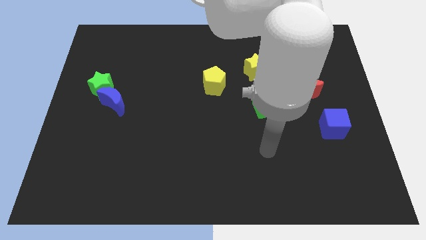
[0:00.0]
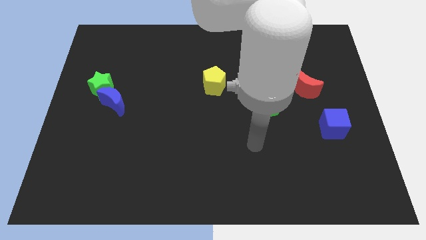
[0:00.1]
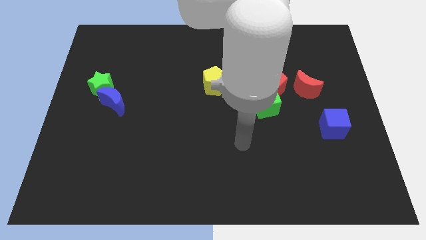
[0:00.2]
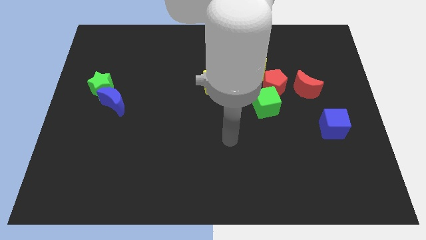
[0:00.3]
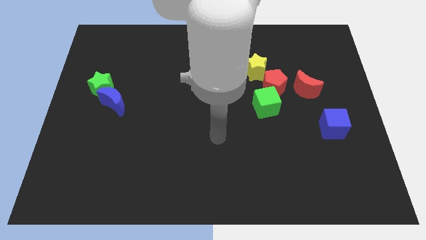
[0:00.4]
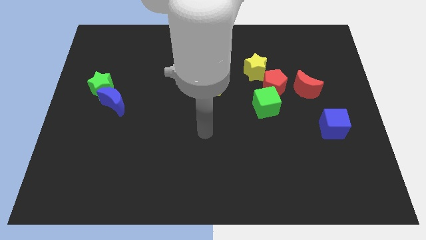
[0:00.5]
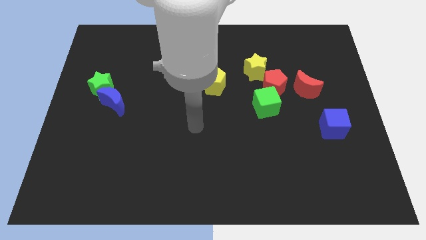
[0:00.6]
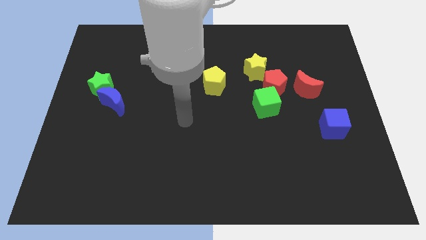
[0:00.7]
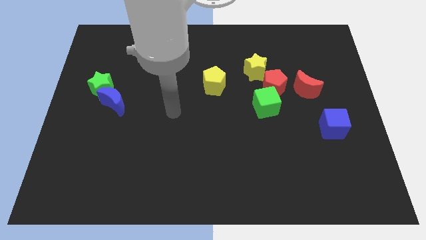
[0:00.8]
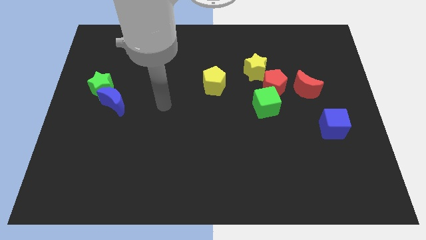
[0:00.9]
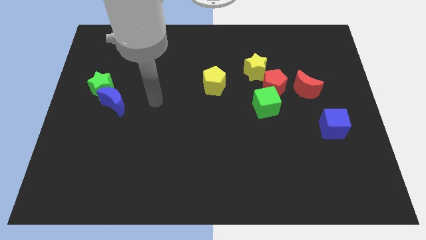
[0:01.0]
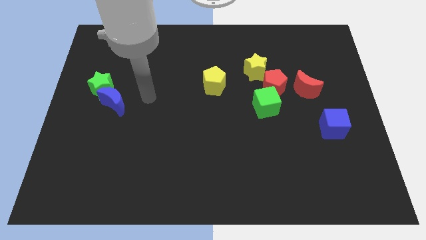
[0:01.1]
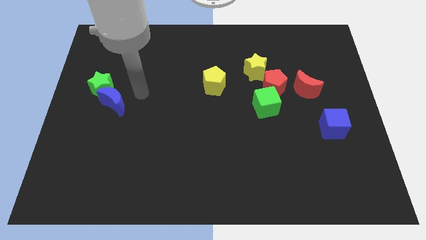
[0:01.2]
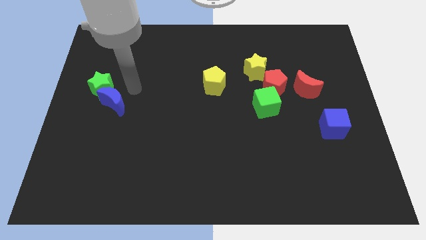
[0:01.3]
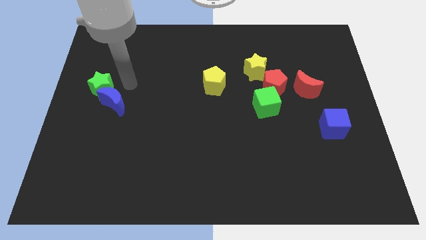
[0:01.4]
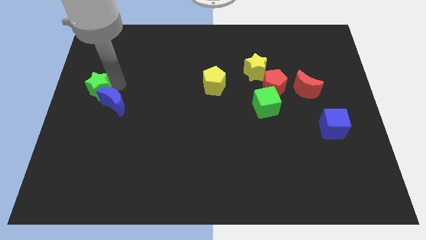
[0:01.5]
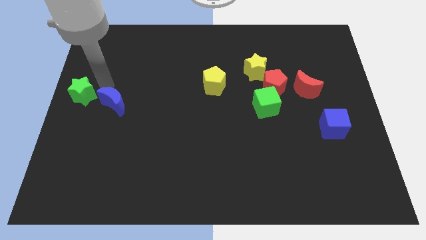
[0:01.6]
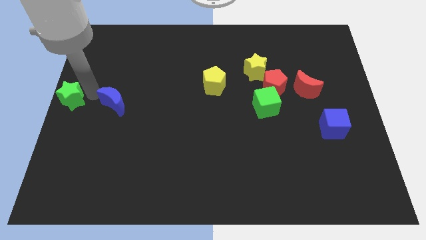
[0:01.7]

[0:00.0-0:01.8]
separate the blue moon from the green star

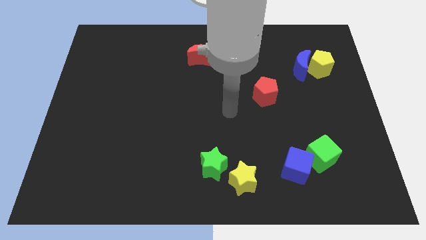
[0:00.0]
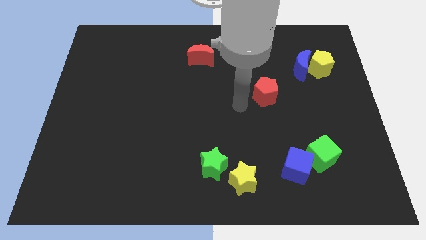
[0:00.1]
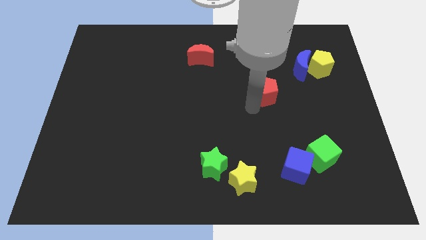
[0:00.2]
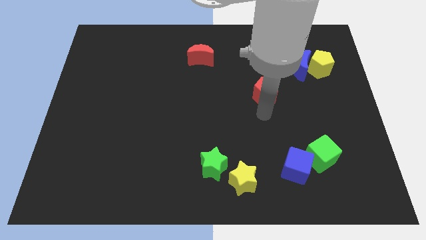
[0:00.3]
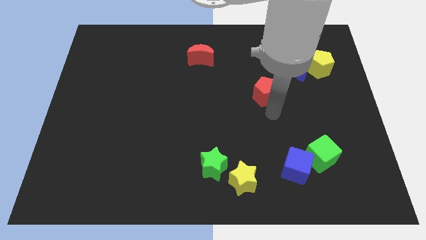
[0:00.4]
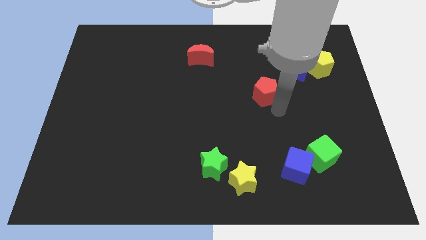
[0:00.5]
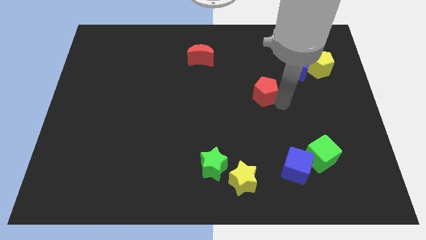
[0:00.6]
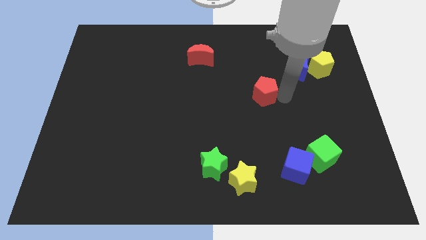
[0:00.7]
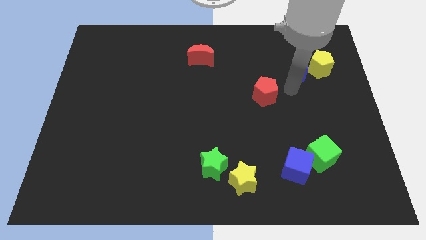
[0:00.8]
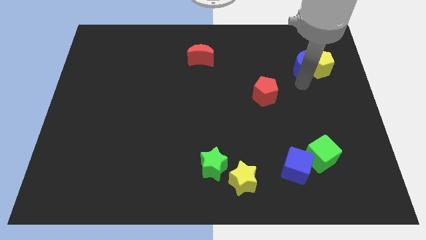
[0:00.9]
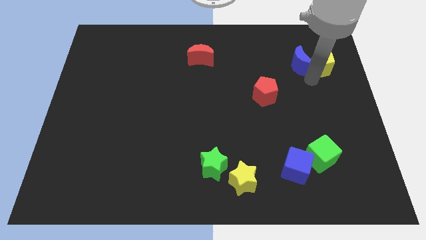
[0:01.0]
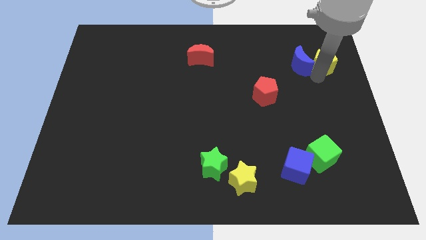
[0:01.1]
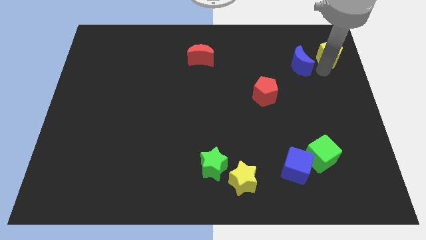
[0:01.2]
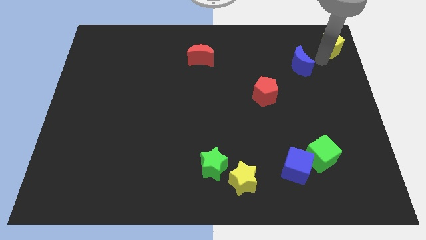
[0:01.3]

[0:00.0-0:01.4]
move the blue moon away from the yellow pentagon

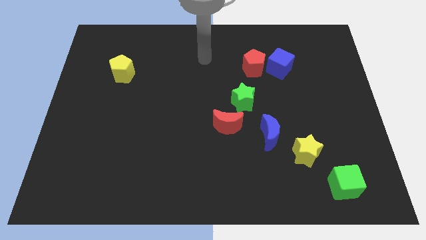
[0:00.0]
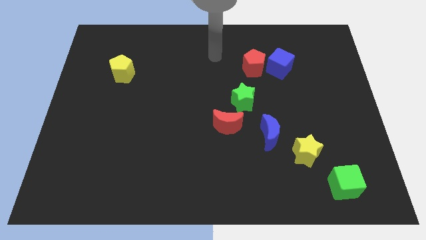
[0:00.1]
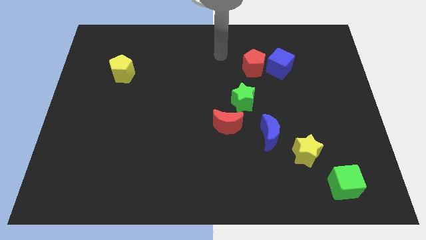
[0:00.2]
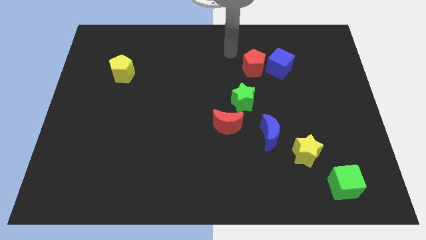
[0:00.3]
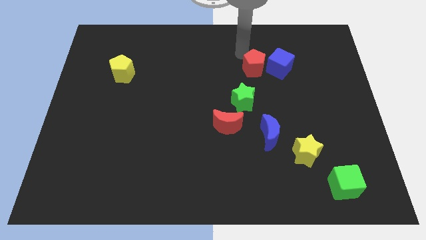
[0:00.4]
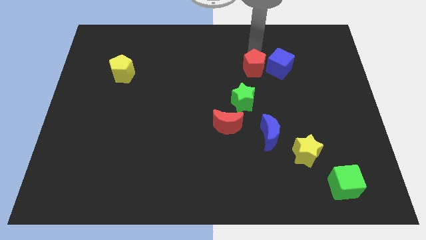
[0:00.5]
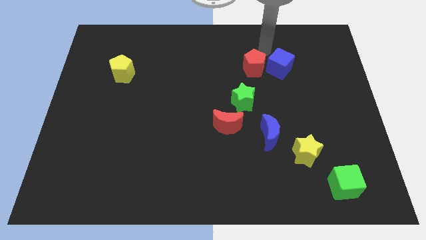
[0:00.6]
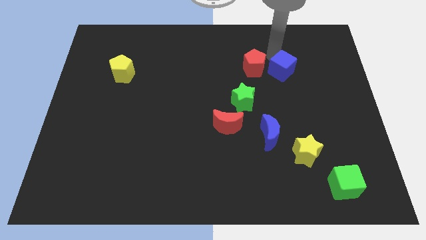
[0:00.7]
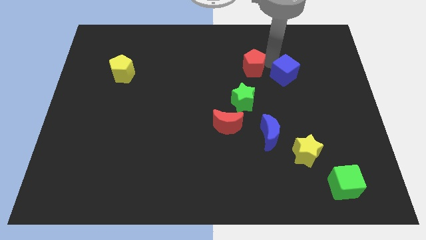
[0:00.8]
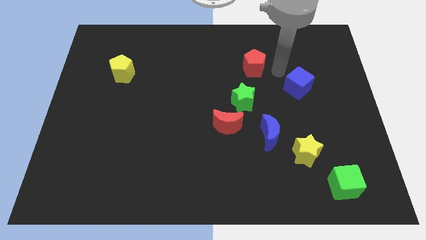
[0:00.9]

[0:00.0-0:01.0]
separate the red pentagon from the blue cube

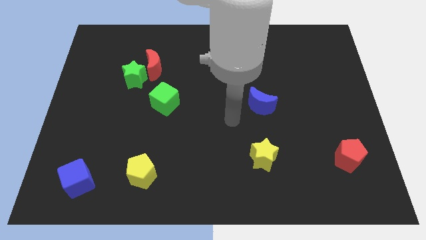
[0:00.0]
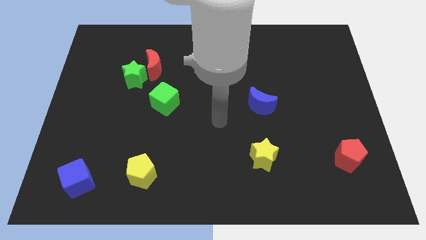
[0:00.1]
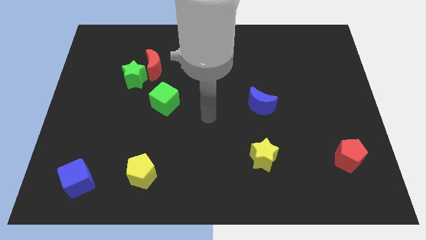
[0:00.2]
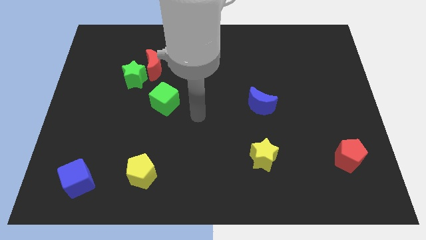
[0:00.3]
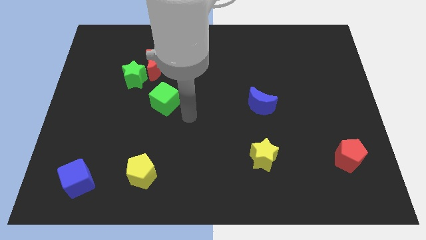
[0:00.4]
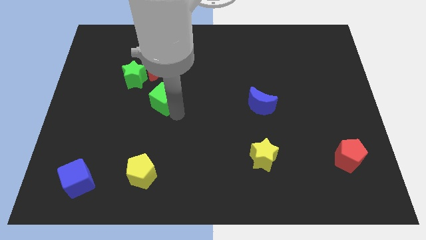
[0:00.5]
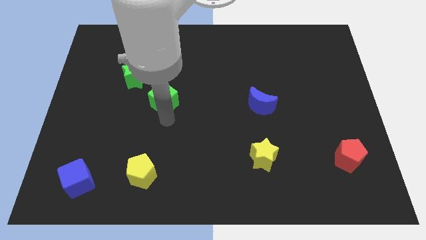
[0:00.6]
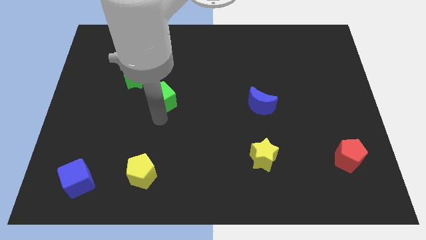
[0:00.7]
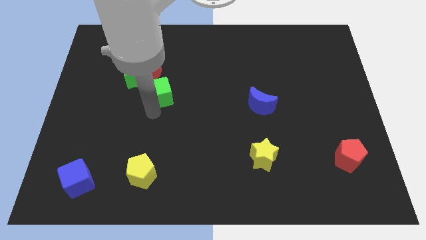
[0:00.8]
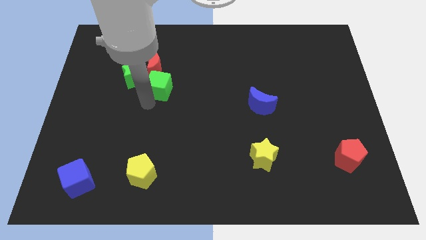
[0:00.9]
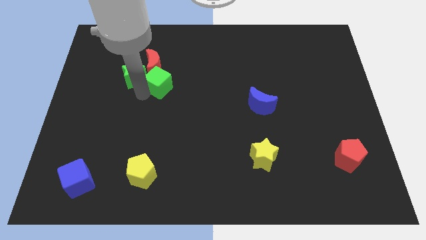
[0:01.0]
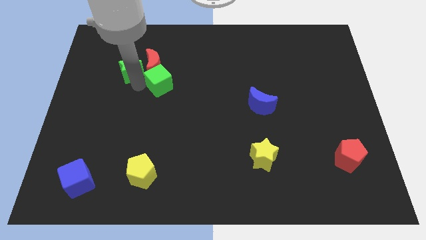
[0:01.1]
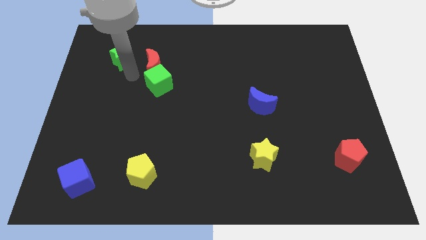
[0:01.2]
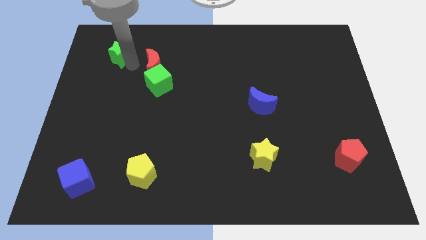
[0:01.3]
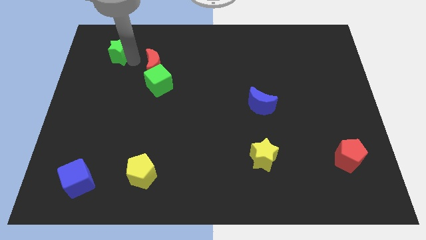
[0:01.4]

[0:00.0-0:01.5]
pull the red moon apart from the green star

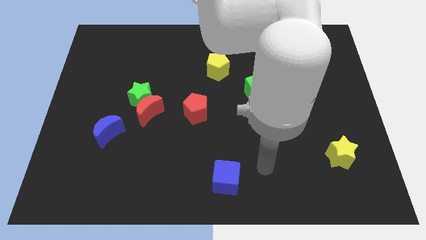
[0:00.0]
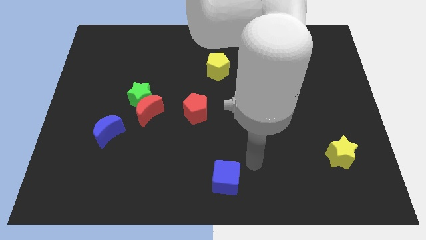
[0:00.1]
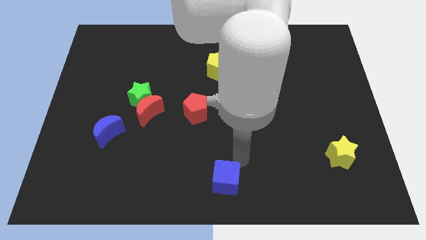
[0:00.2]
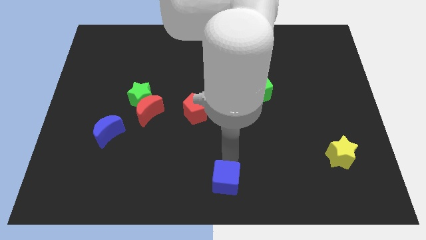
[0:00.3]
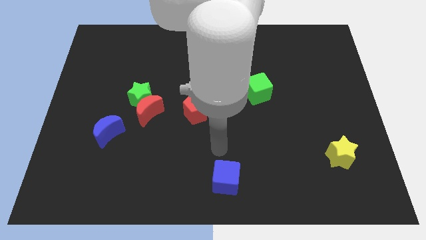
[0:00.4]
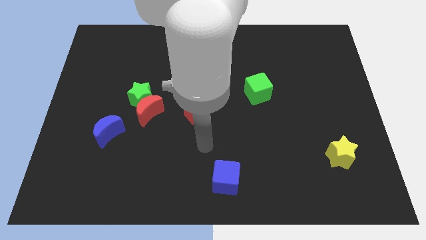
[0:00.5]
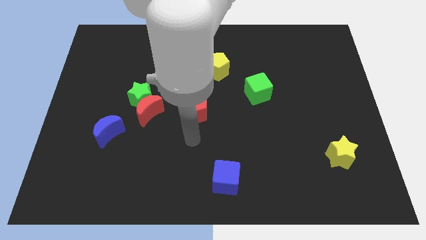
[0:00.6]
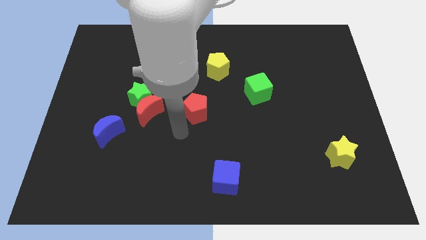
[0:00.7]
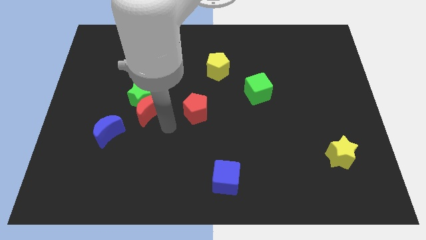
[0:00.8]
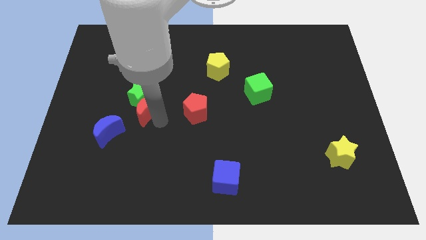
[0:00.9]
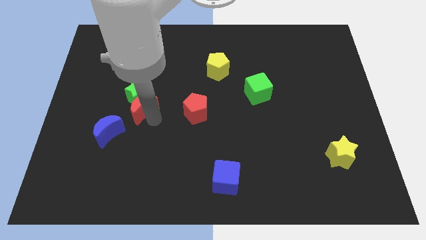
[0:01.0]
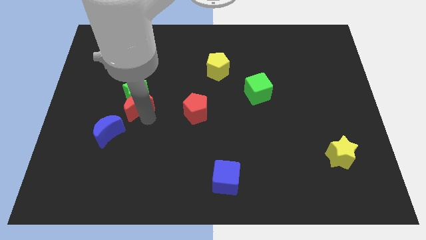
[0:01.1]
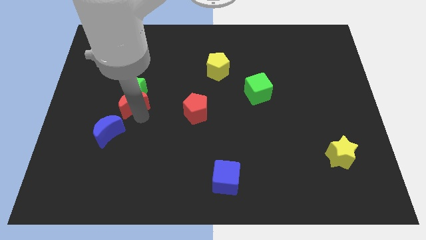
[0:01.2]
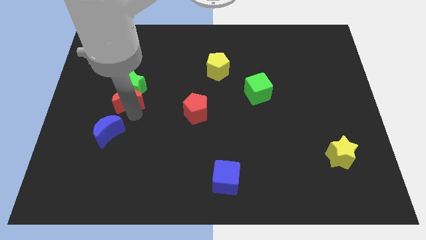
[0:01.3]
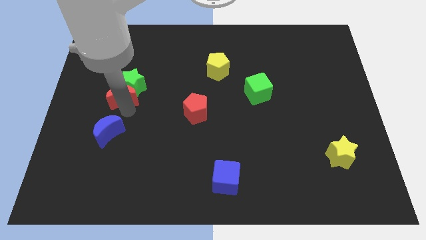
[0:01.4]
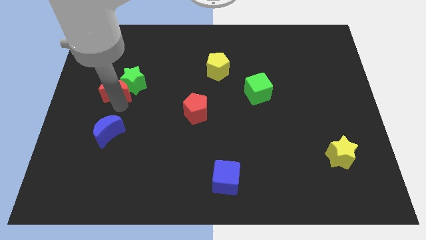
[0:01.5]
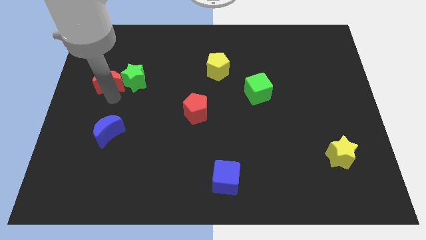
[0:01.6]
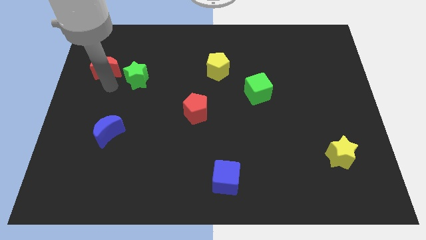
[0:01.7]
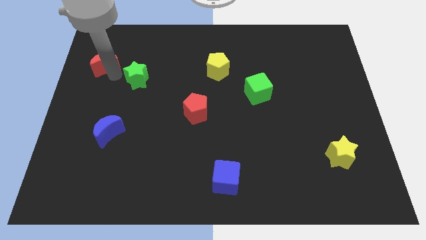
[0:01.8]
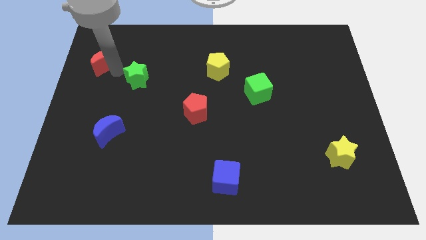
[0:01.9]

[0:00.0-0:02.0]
move the green star away from the red moon

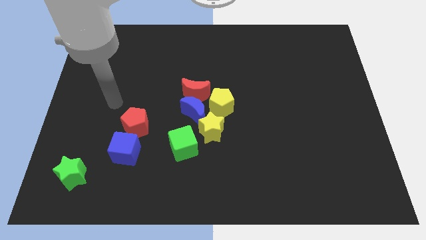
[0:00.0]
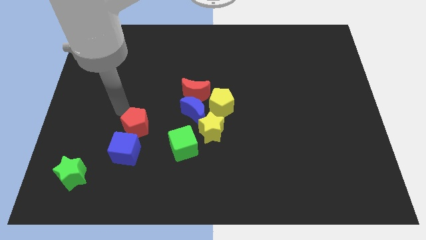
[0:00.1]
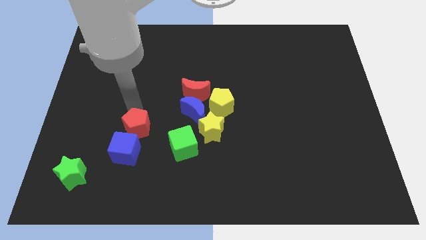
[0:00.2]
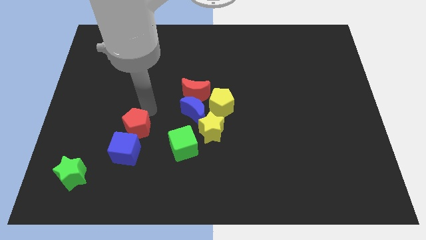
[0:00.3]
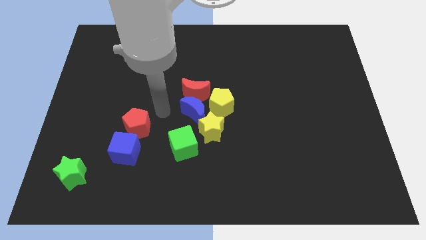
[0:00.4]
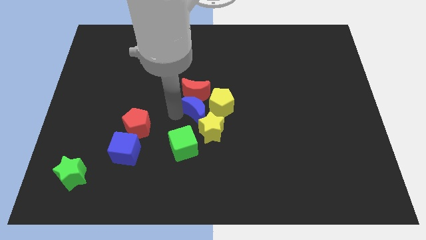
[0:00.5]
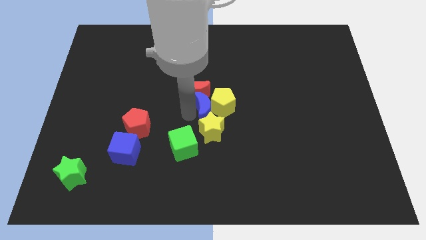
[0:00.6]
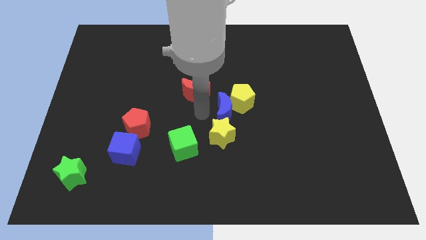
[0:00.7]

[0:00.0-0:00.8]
move the red moon away from the blue moon and yellow pentagon

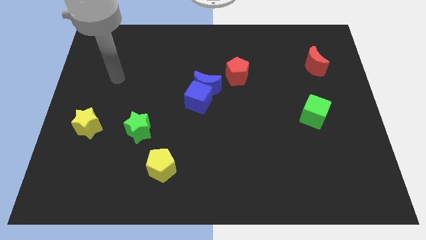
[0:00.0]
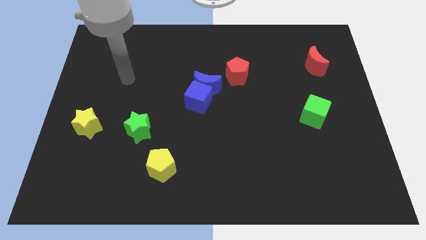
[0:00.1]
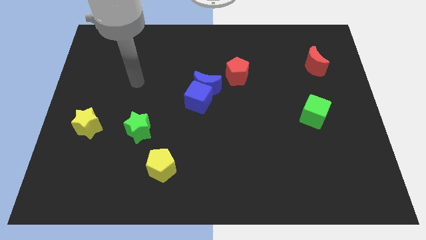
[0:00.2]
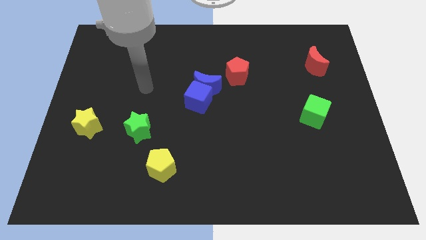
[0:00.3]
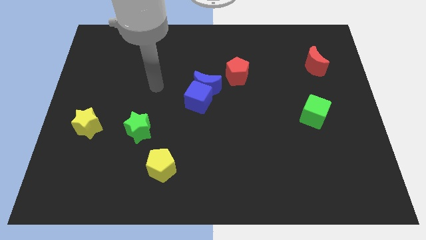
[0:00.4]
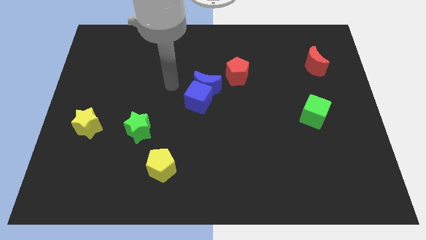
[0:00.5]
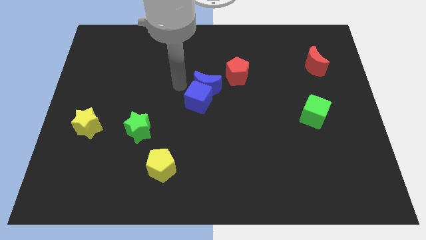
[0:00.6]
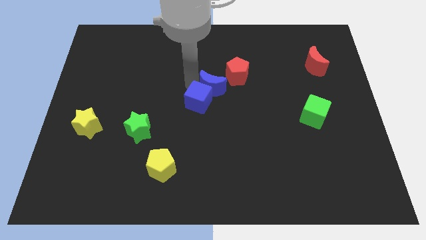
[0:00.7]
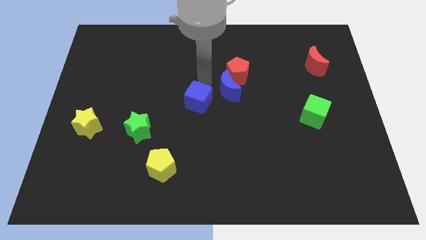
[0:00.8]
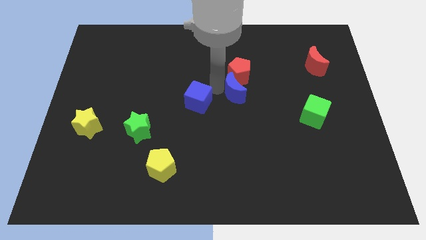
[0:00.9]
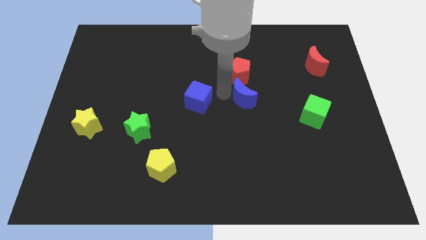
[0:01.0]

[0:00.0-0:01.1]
separate the blue cube from the blue moon
